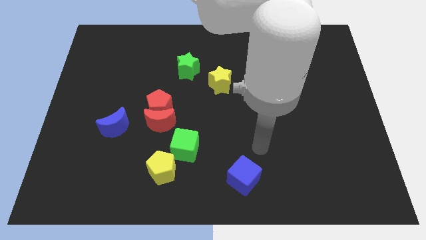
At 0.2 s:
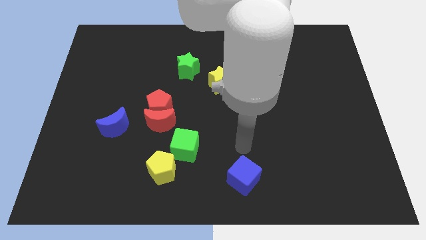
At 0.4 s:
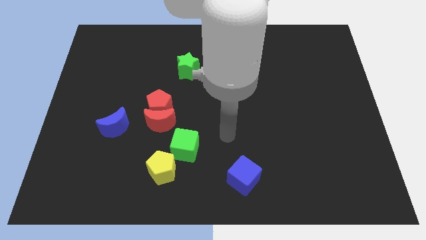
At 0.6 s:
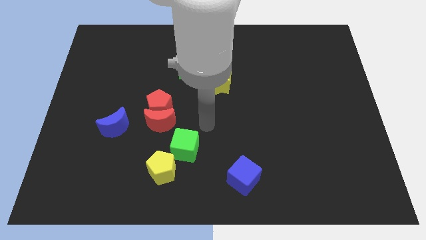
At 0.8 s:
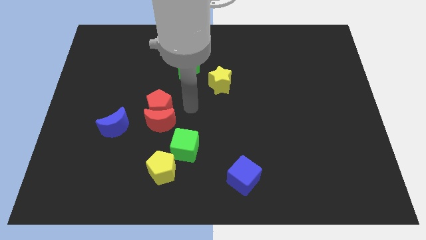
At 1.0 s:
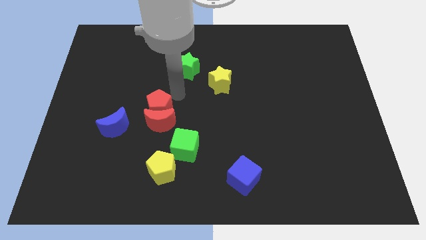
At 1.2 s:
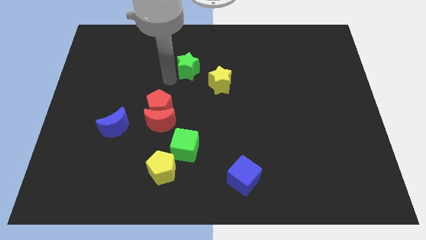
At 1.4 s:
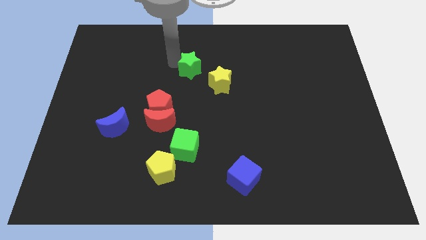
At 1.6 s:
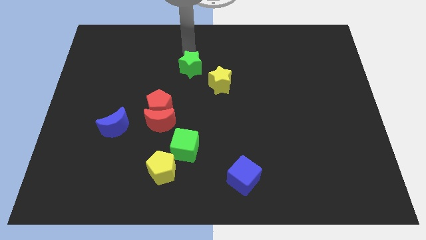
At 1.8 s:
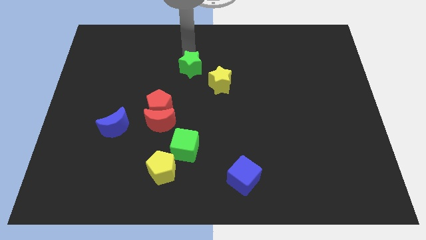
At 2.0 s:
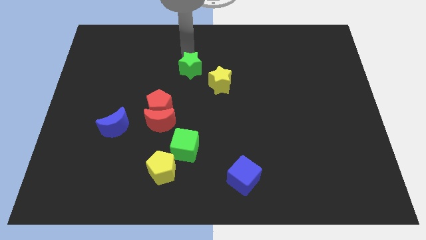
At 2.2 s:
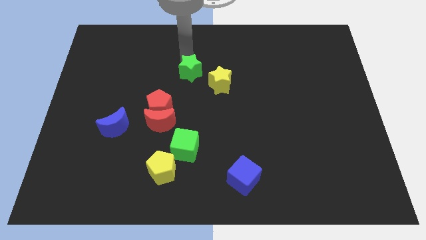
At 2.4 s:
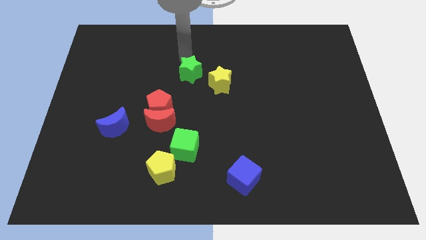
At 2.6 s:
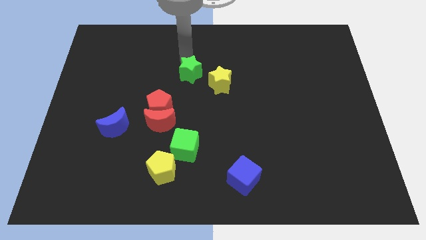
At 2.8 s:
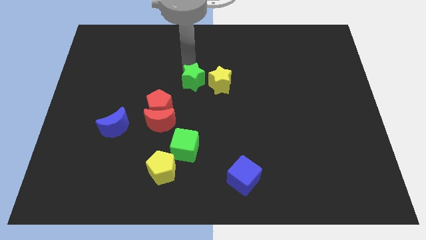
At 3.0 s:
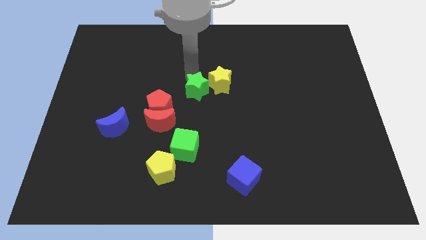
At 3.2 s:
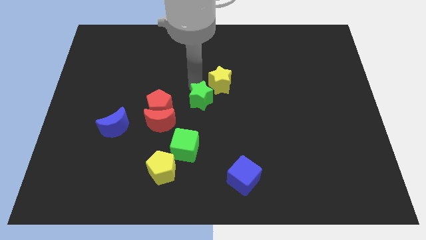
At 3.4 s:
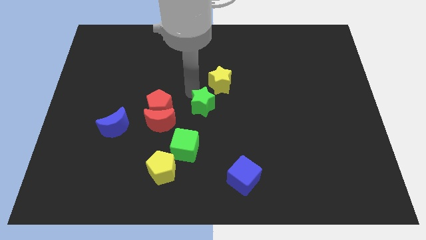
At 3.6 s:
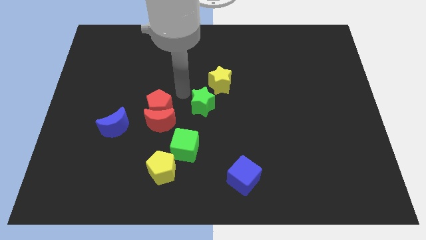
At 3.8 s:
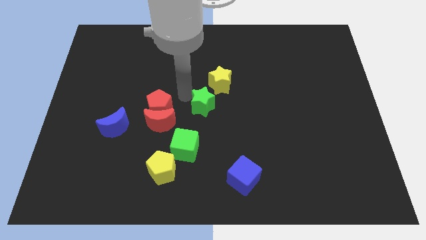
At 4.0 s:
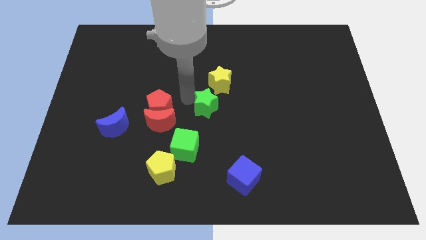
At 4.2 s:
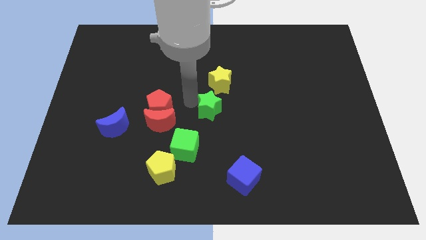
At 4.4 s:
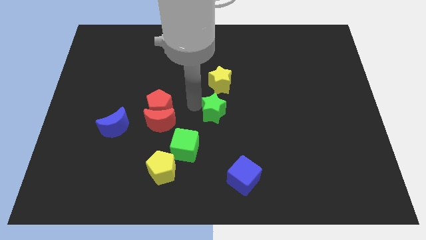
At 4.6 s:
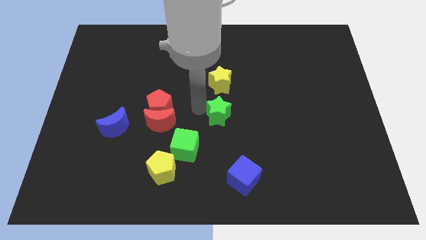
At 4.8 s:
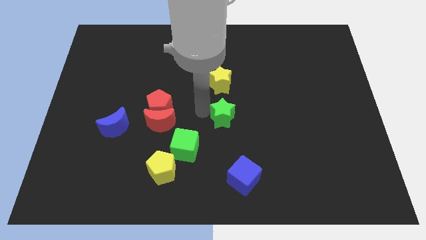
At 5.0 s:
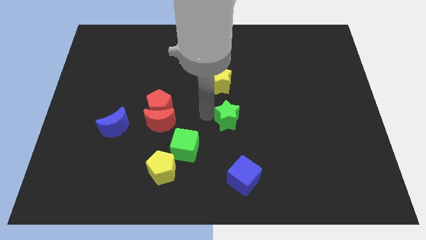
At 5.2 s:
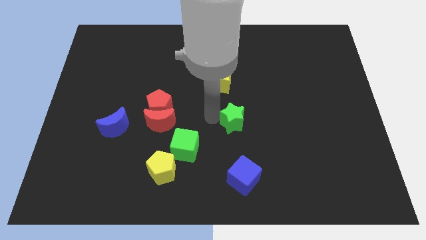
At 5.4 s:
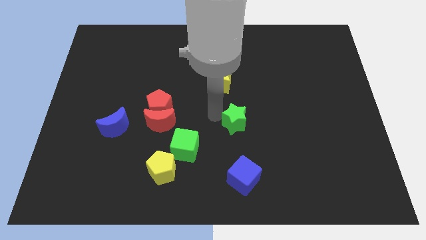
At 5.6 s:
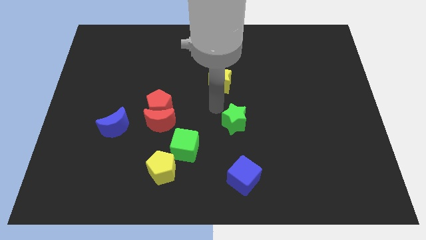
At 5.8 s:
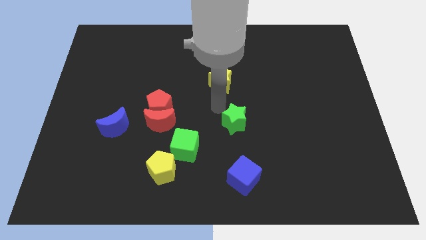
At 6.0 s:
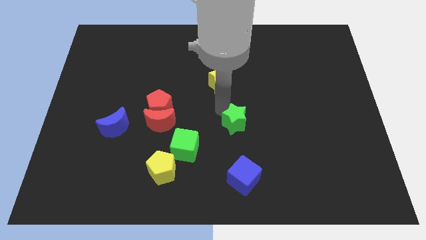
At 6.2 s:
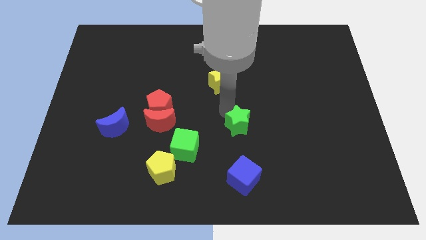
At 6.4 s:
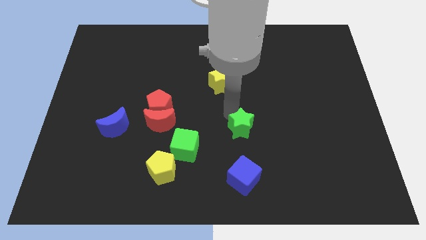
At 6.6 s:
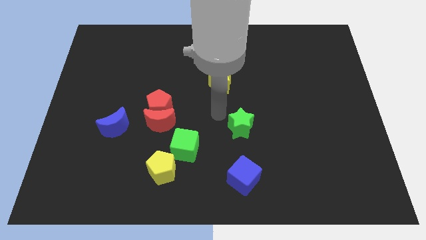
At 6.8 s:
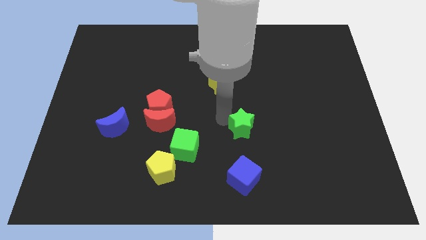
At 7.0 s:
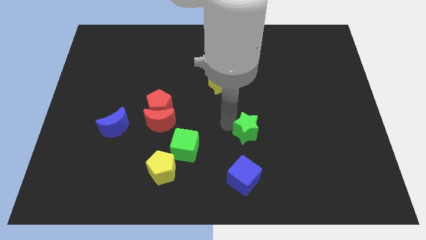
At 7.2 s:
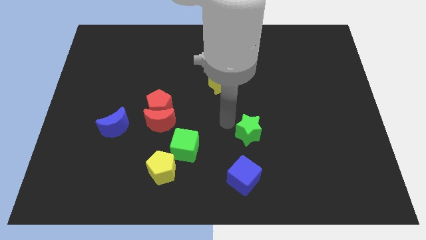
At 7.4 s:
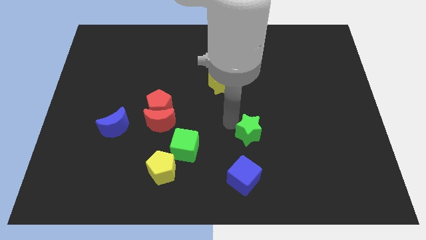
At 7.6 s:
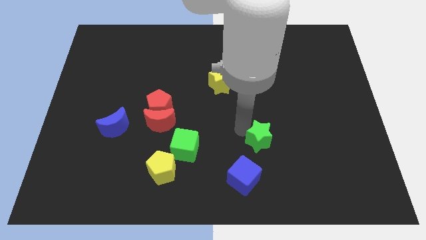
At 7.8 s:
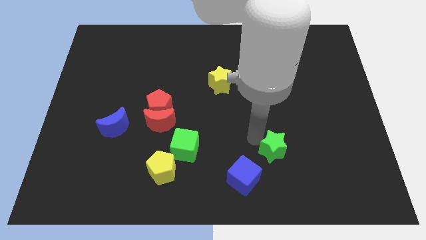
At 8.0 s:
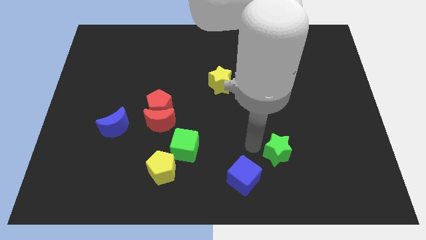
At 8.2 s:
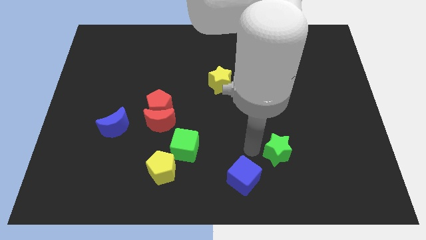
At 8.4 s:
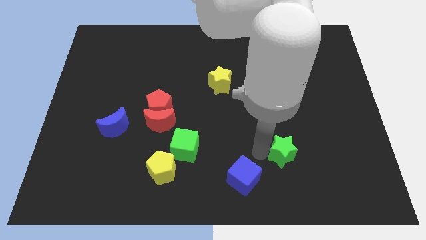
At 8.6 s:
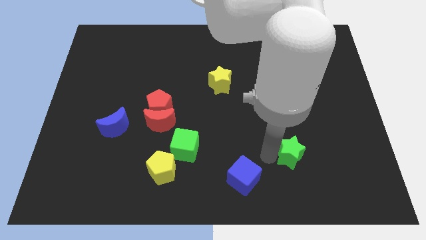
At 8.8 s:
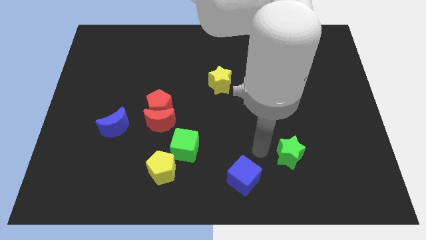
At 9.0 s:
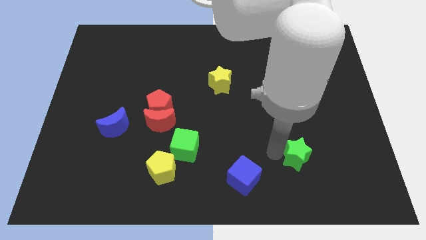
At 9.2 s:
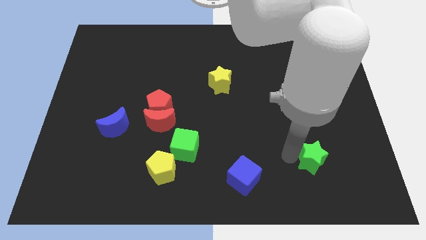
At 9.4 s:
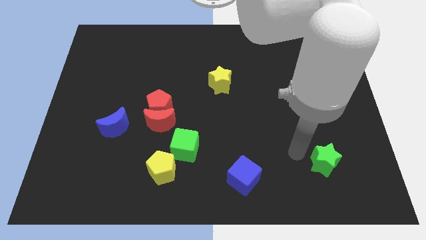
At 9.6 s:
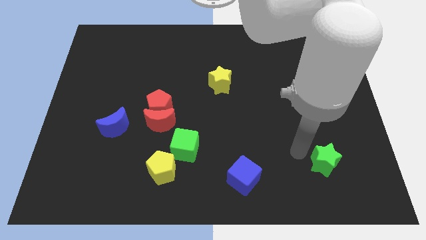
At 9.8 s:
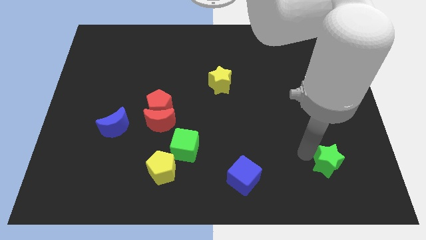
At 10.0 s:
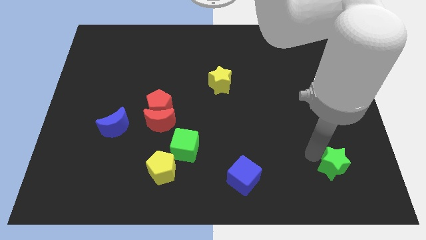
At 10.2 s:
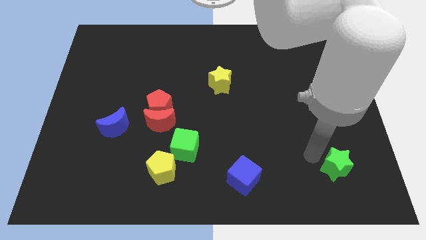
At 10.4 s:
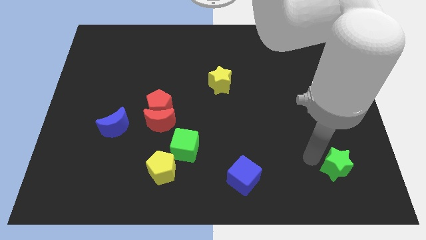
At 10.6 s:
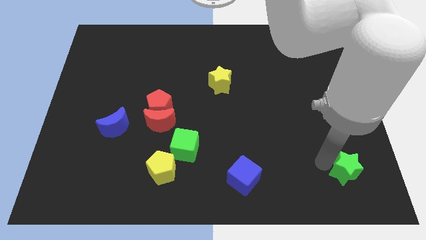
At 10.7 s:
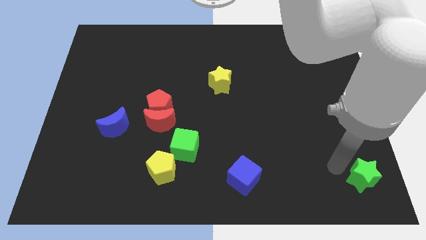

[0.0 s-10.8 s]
push the green star to the bottom right of the board

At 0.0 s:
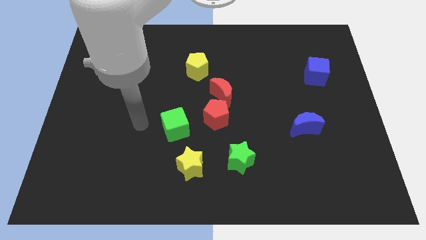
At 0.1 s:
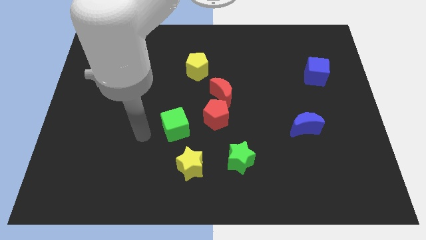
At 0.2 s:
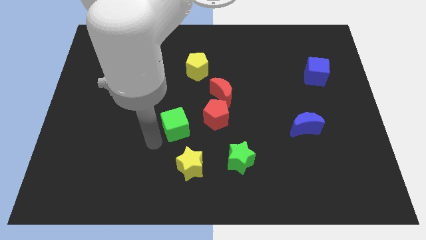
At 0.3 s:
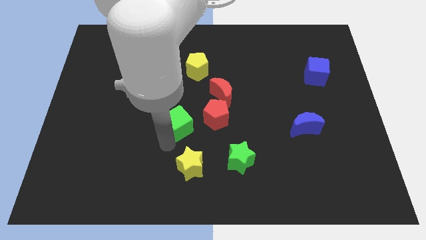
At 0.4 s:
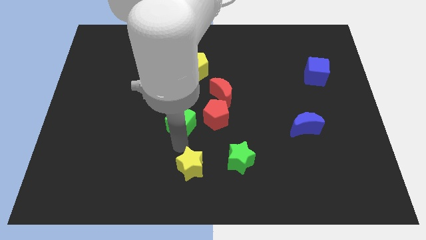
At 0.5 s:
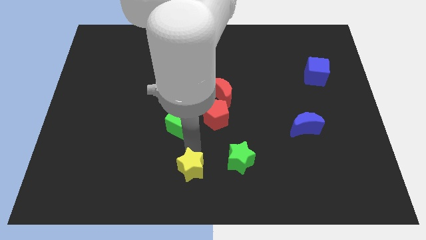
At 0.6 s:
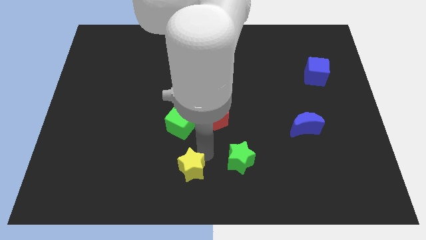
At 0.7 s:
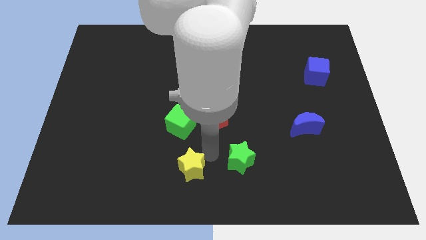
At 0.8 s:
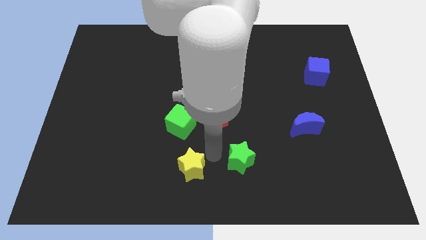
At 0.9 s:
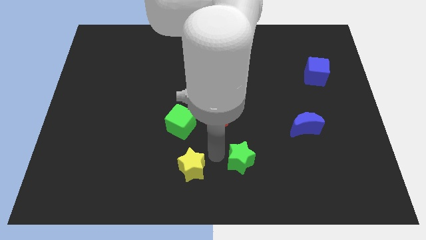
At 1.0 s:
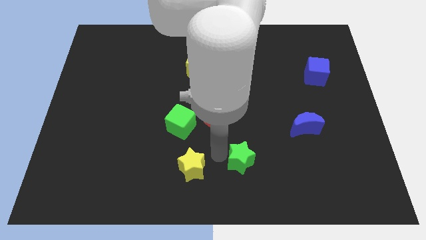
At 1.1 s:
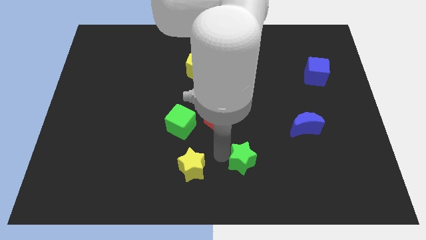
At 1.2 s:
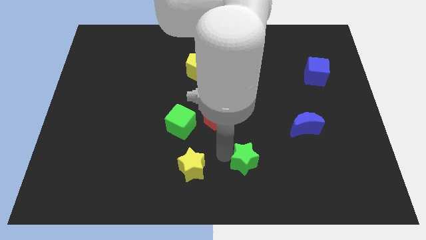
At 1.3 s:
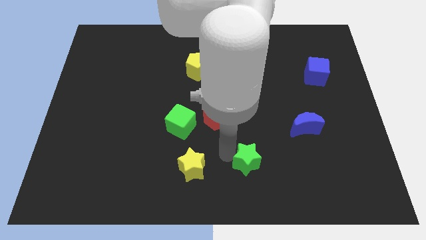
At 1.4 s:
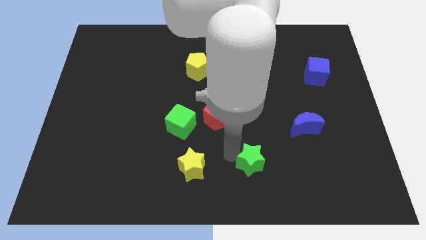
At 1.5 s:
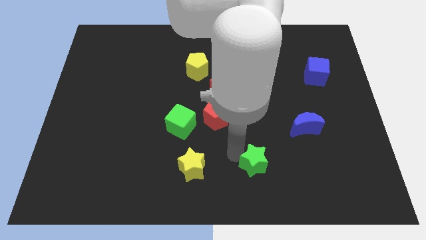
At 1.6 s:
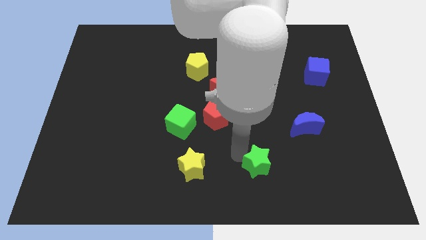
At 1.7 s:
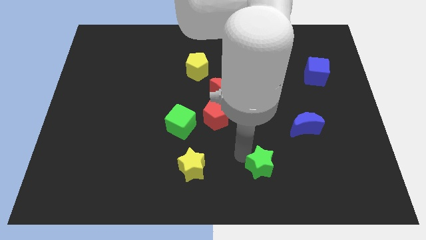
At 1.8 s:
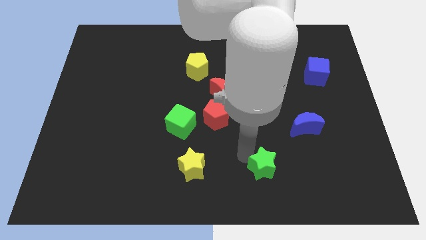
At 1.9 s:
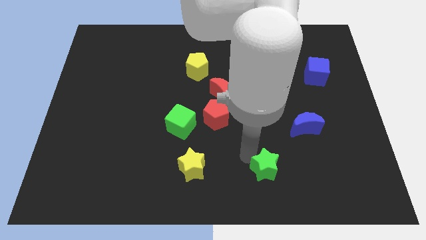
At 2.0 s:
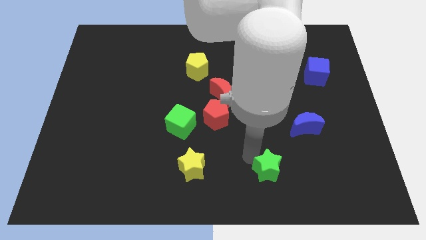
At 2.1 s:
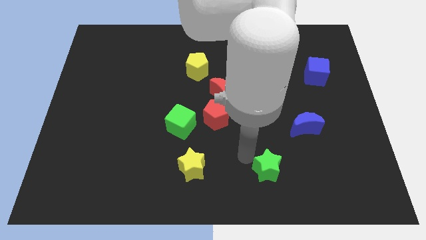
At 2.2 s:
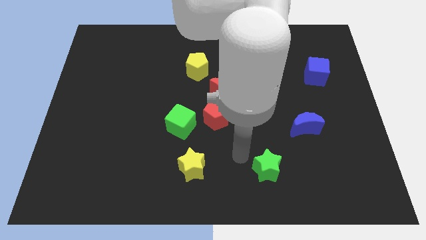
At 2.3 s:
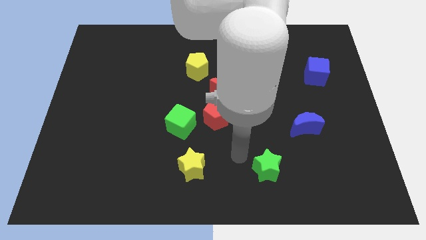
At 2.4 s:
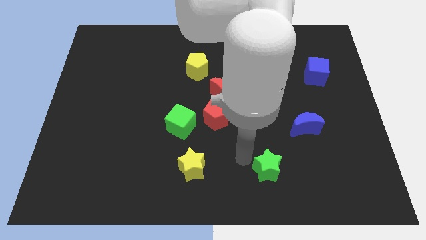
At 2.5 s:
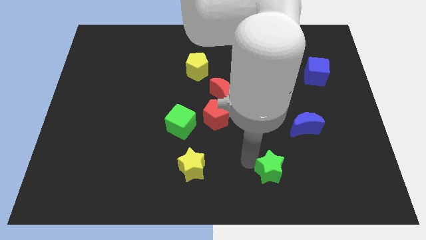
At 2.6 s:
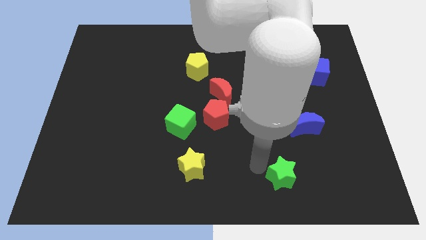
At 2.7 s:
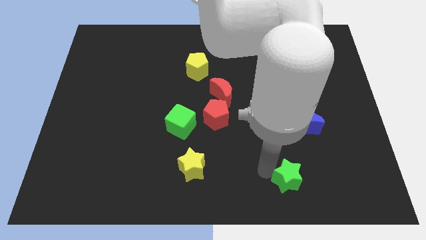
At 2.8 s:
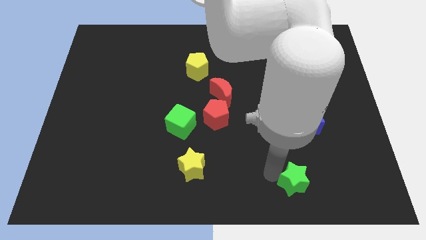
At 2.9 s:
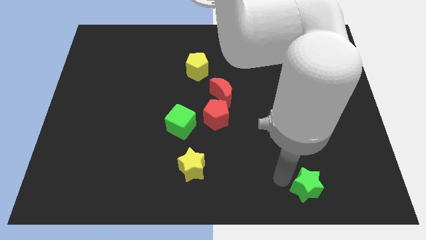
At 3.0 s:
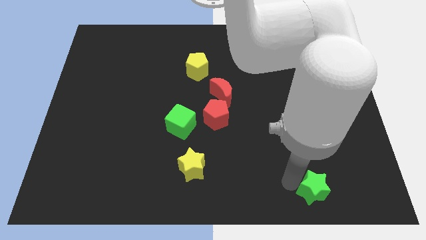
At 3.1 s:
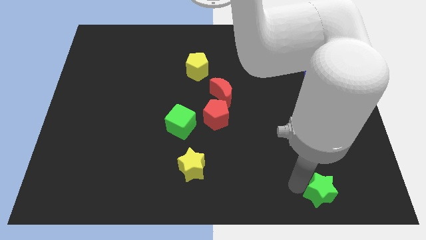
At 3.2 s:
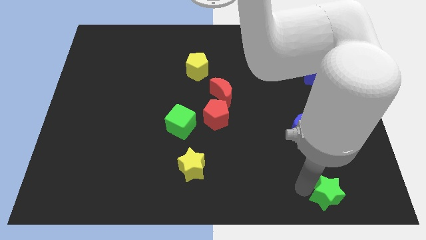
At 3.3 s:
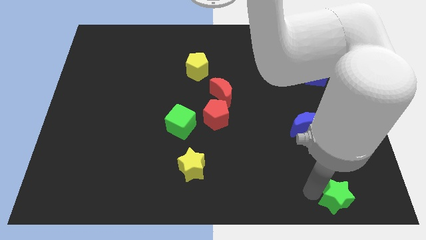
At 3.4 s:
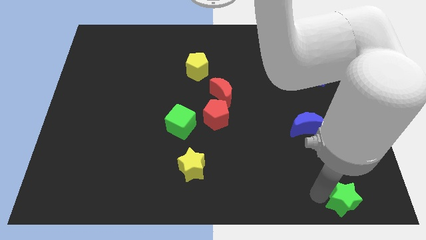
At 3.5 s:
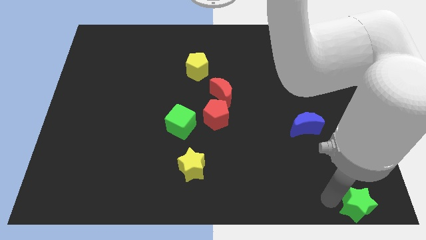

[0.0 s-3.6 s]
put the green star to the bottom right of the board
